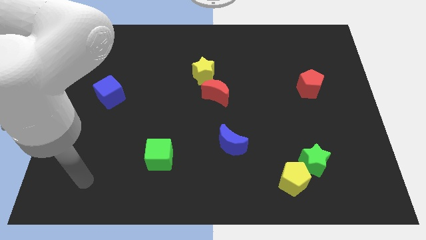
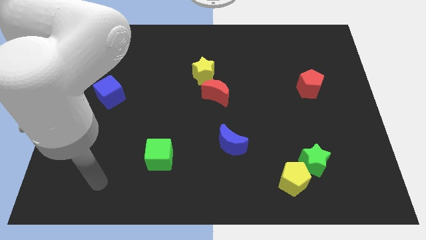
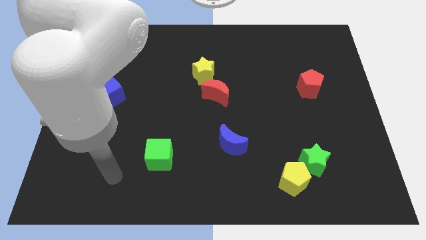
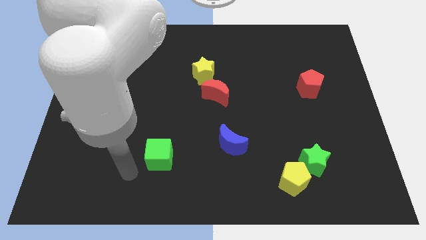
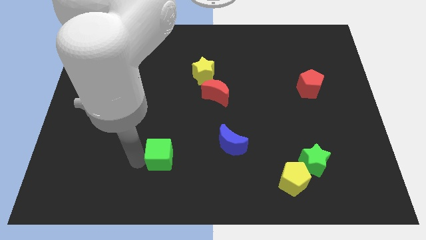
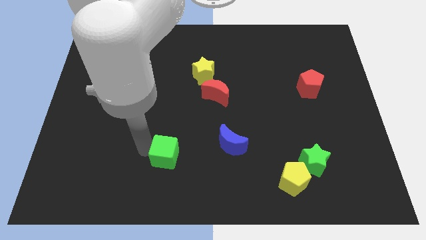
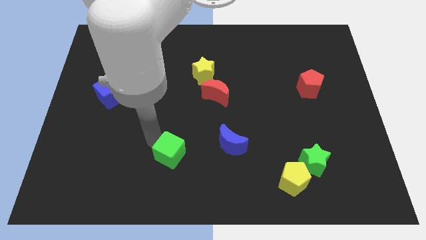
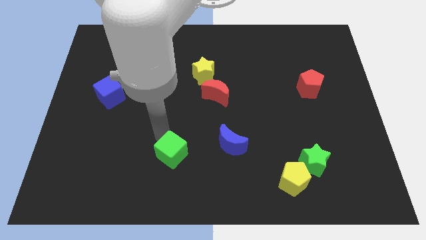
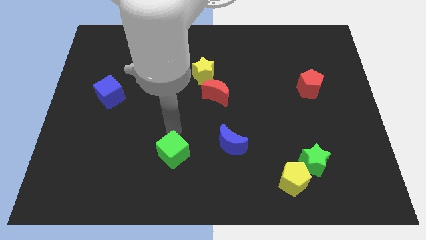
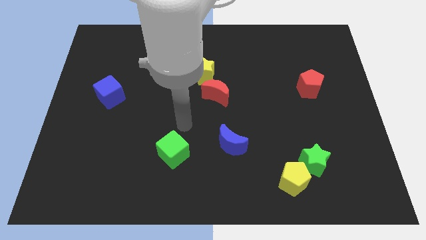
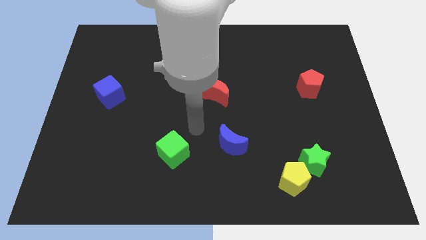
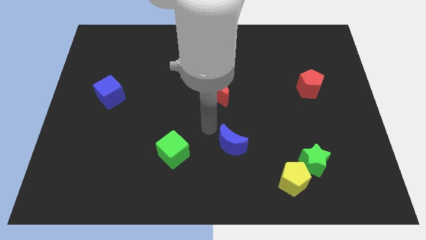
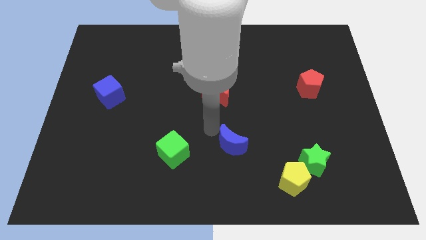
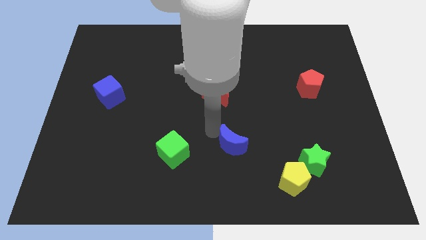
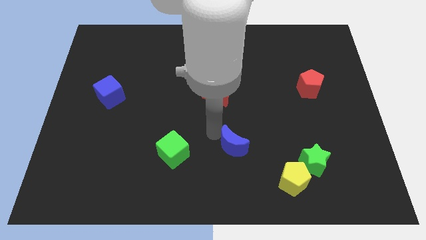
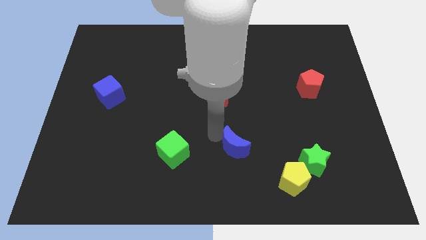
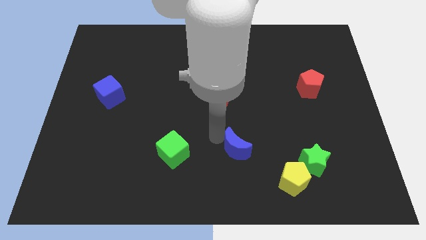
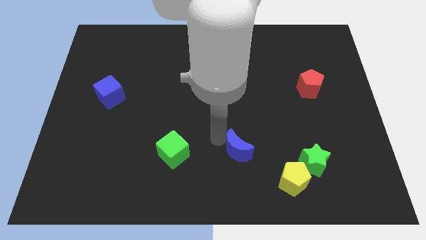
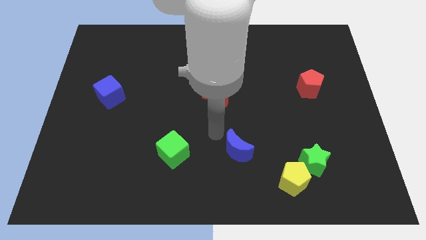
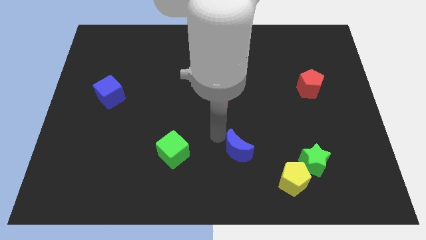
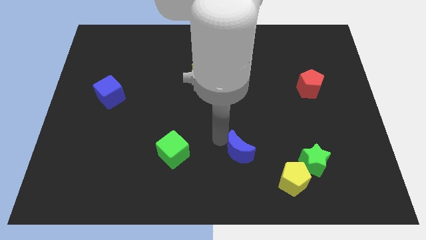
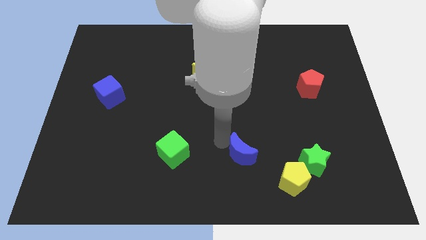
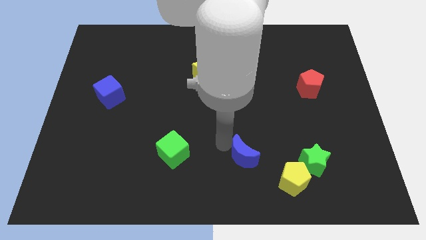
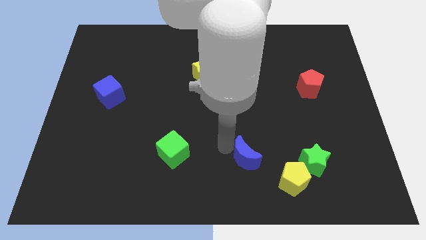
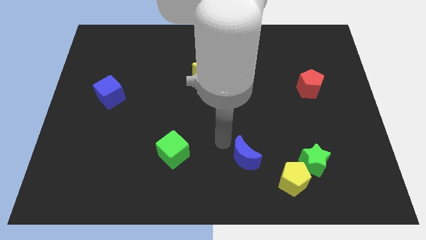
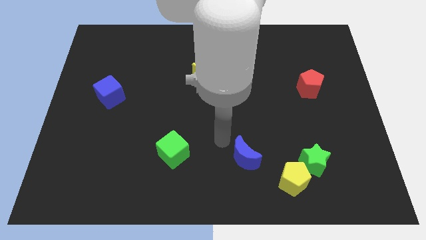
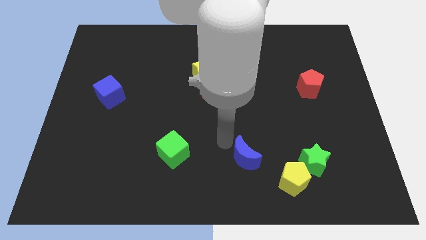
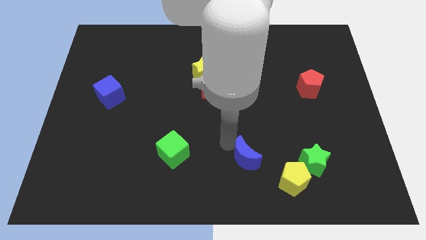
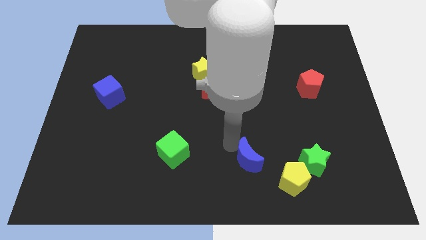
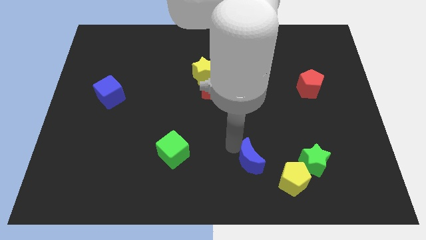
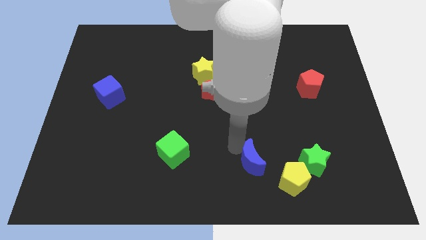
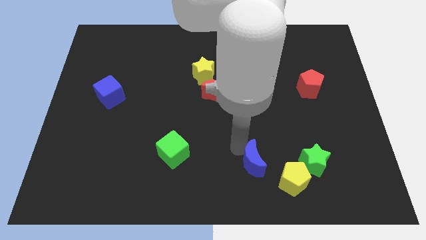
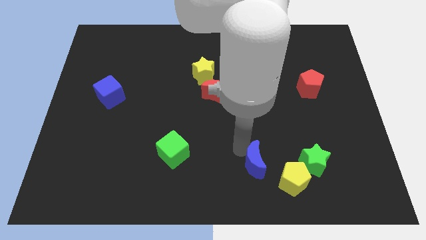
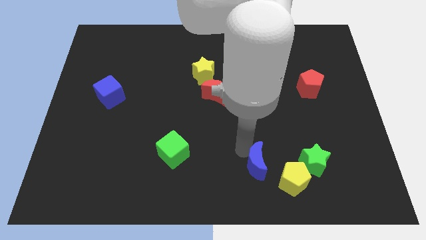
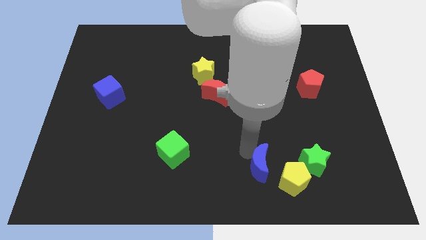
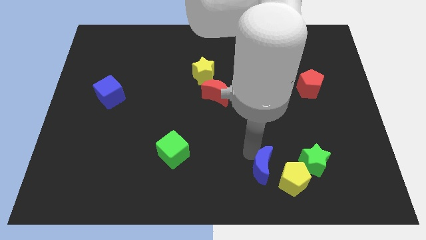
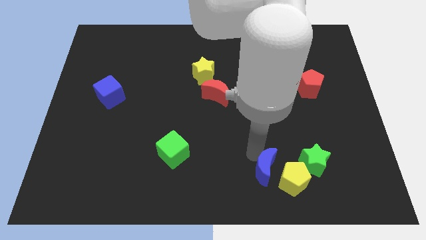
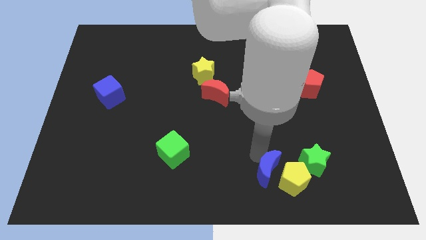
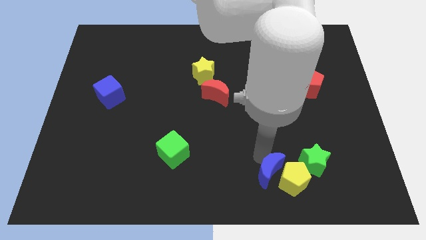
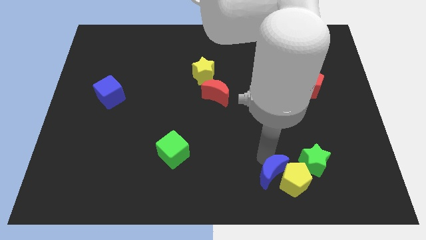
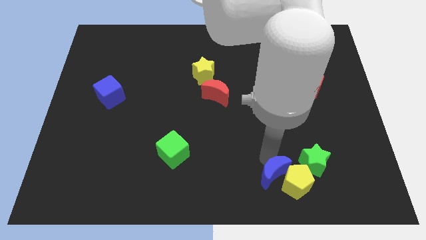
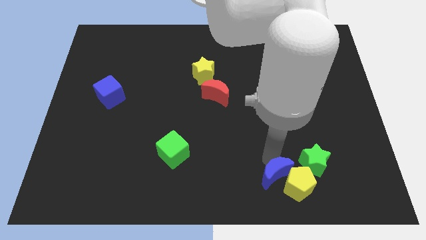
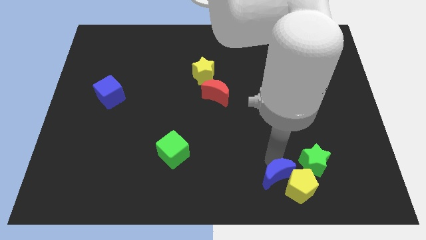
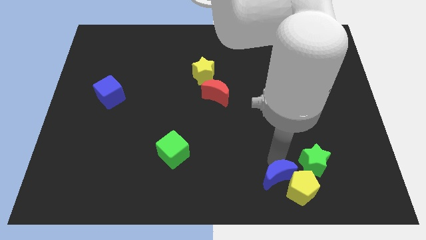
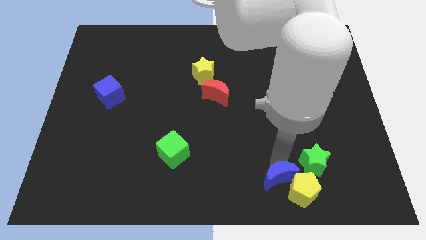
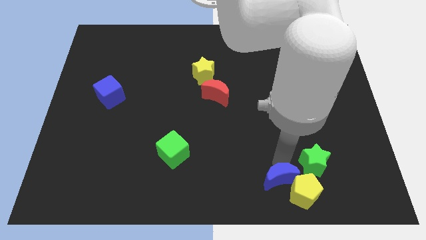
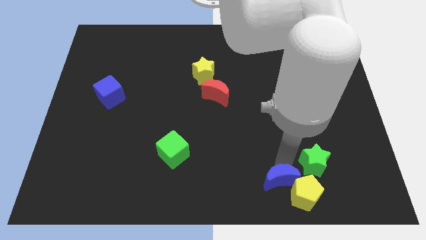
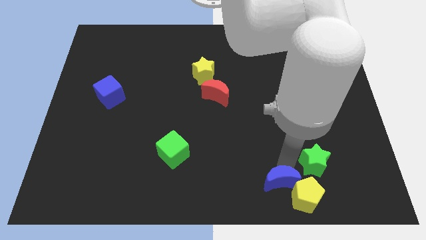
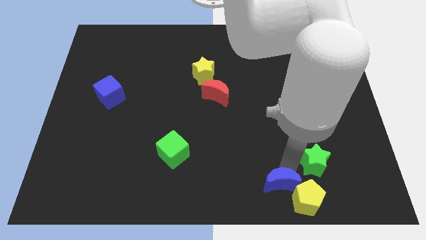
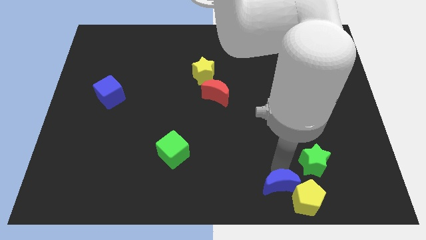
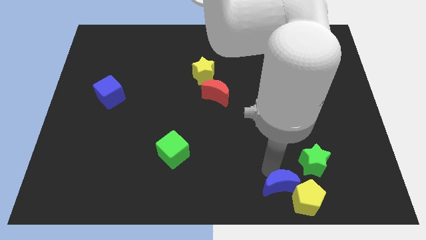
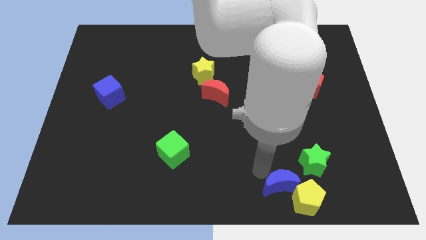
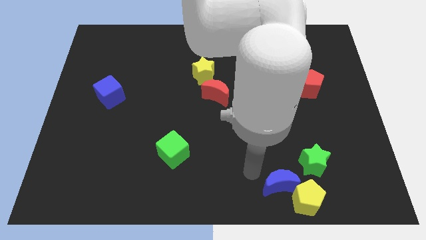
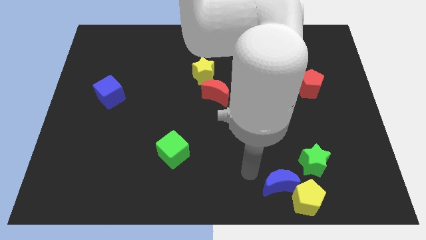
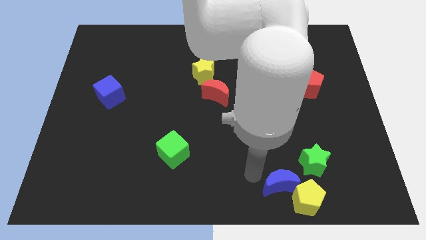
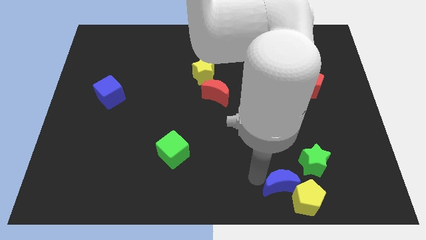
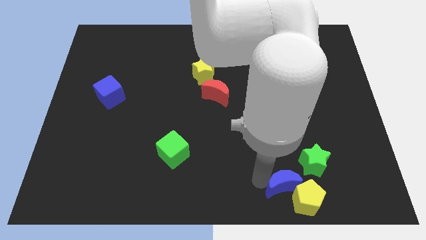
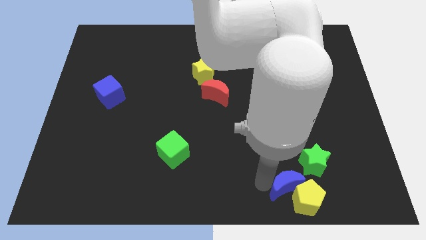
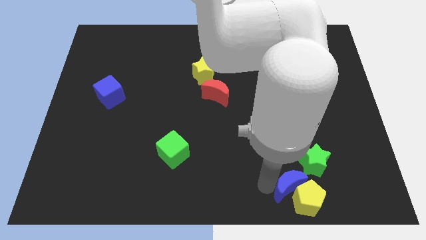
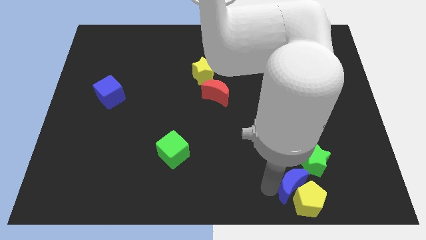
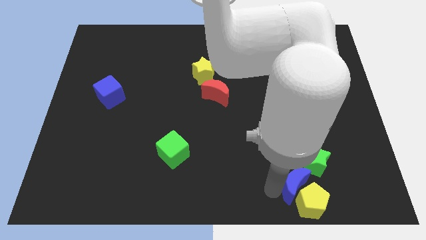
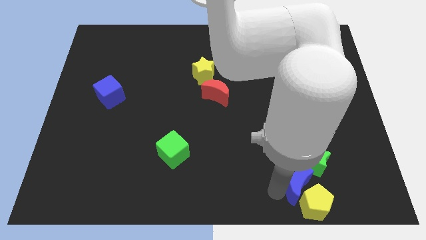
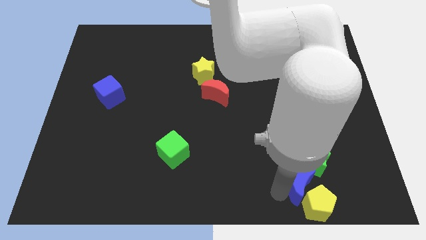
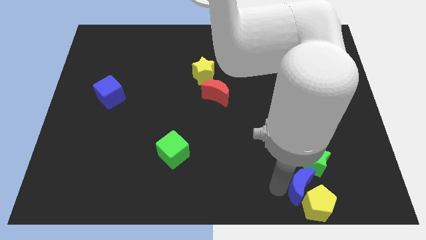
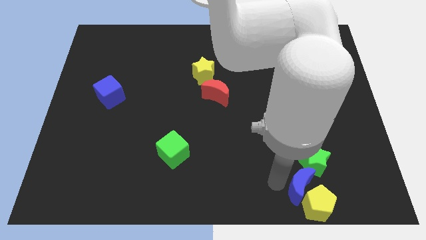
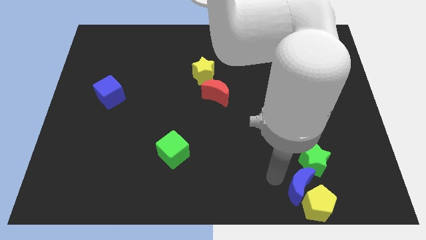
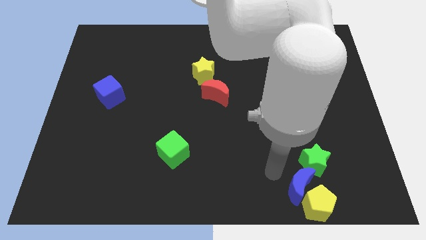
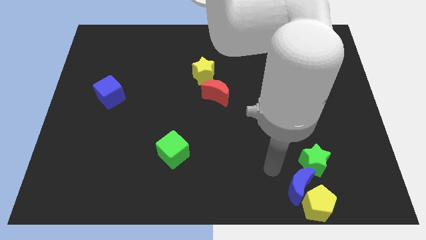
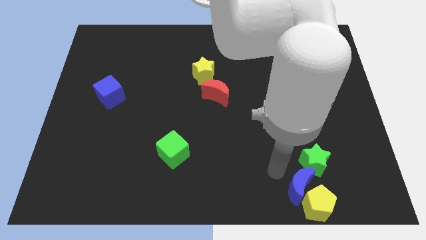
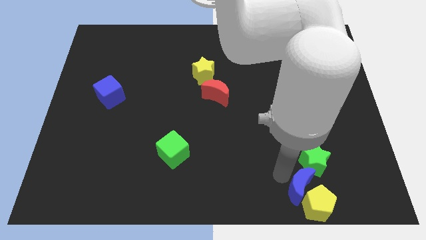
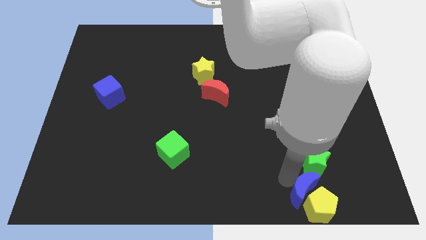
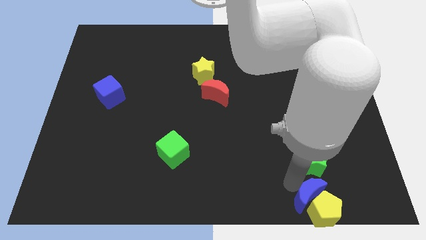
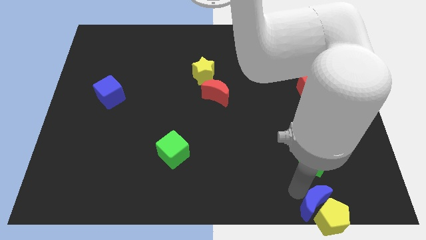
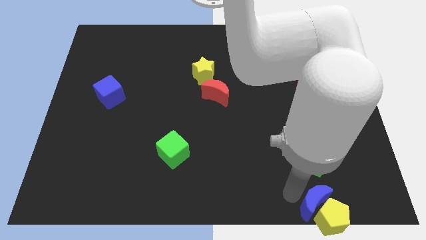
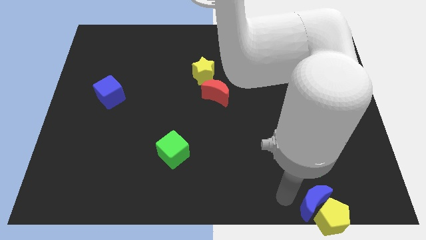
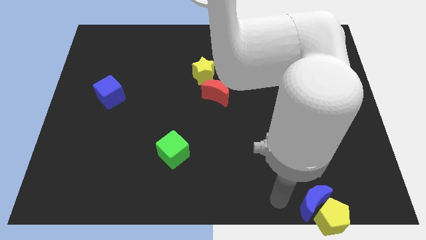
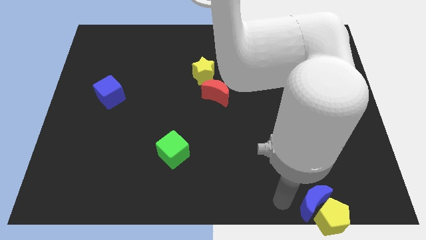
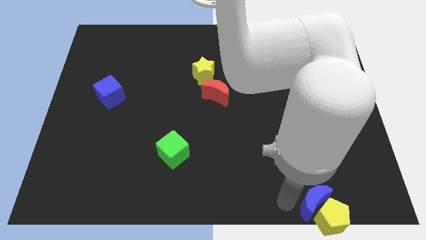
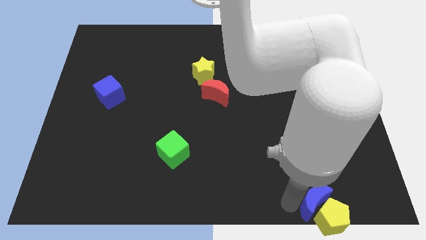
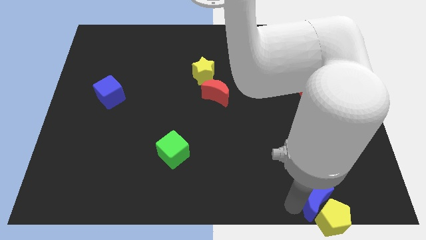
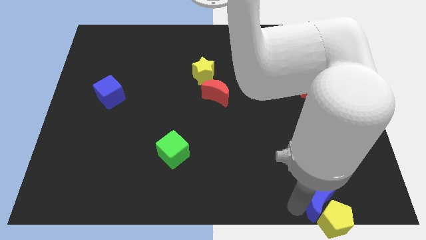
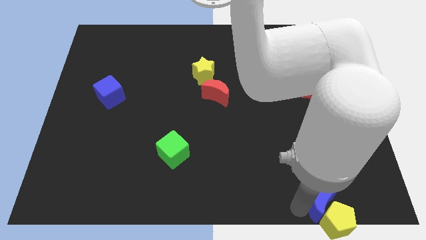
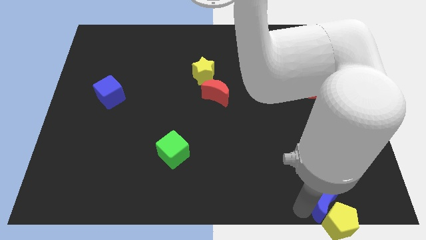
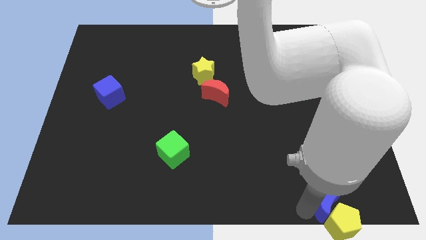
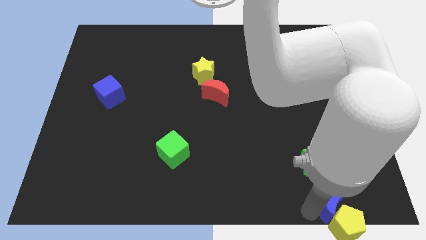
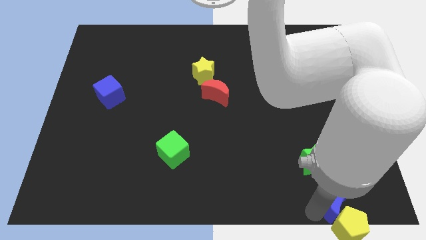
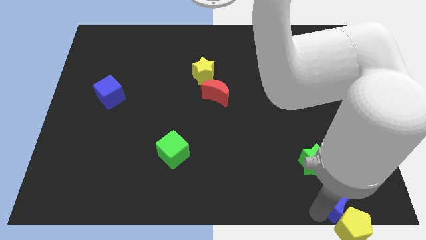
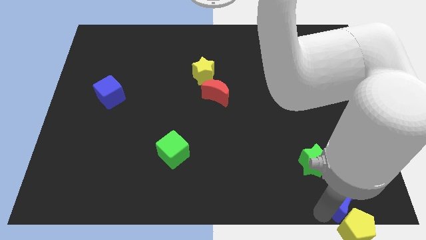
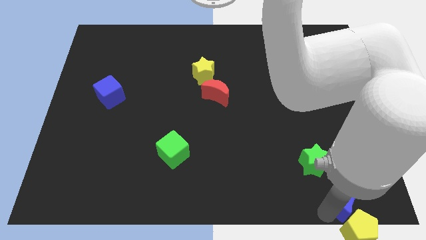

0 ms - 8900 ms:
slide the blue moon to the bottom right of the board
